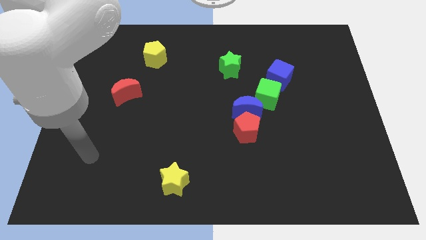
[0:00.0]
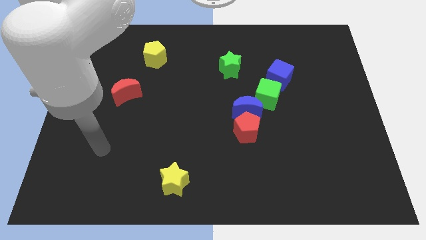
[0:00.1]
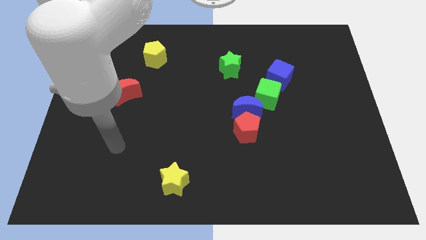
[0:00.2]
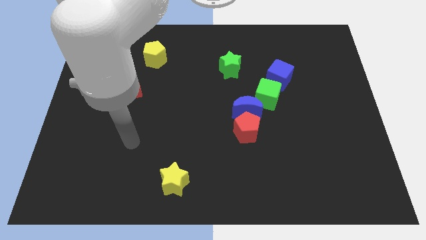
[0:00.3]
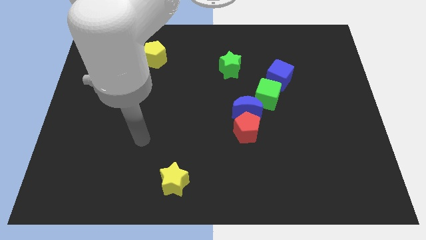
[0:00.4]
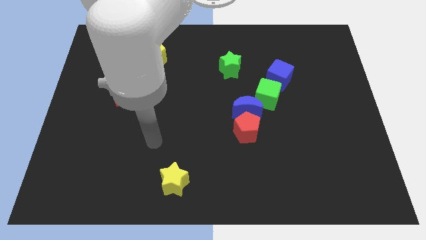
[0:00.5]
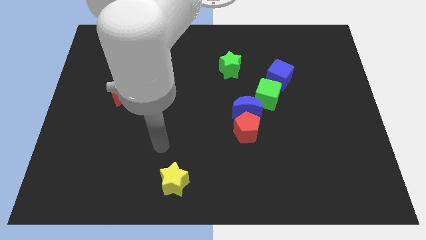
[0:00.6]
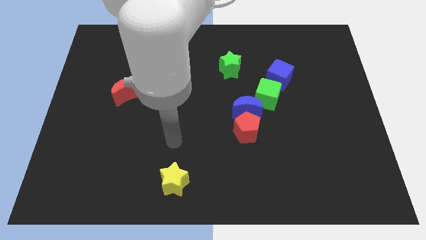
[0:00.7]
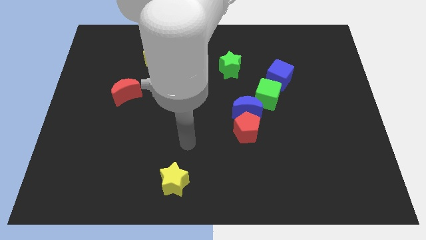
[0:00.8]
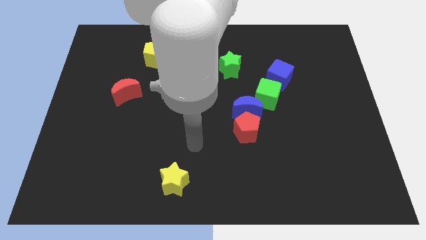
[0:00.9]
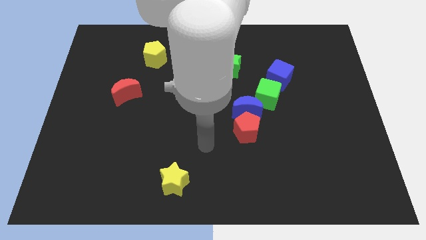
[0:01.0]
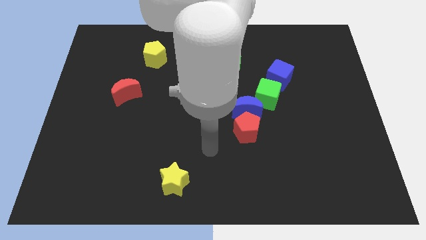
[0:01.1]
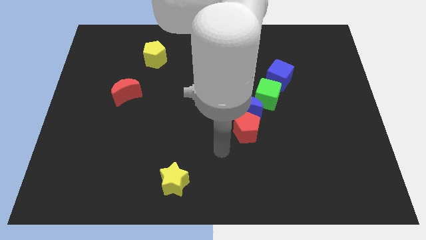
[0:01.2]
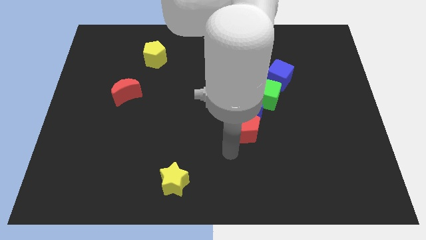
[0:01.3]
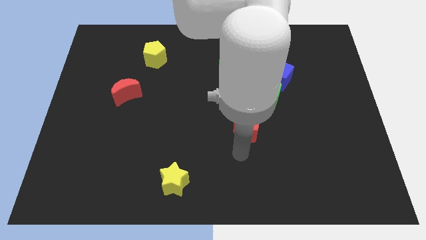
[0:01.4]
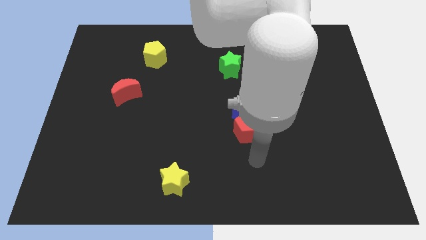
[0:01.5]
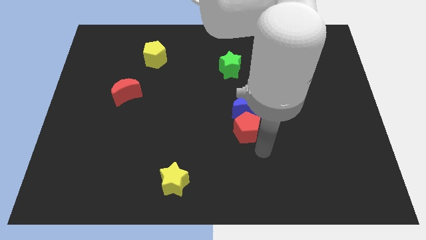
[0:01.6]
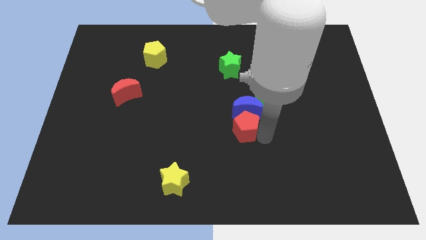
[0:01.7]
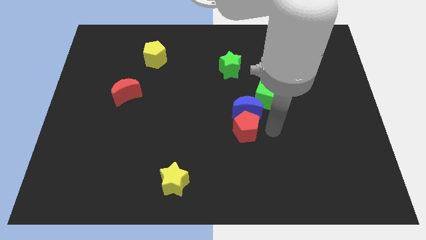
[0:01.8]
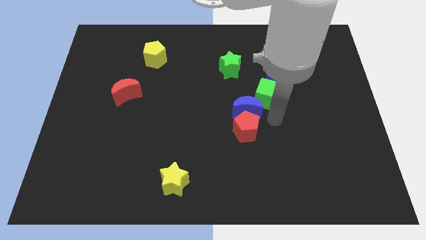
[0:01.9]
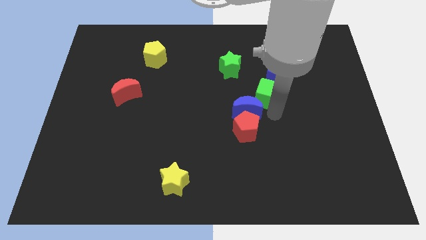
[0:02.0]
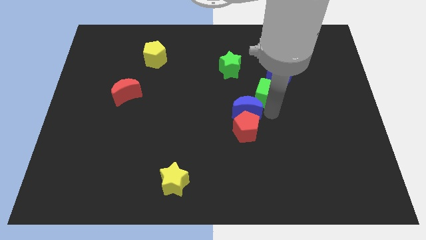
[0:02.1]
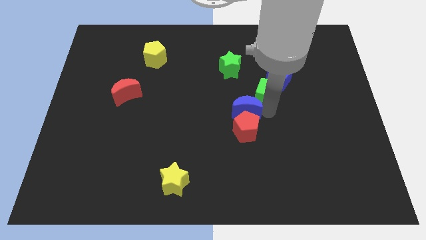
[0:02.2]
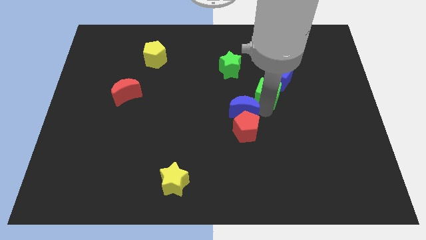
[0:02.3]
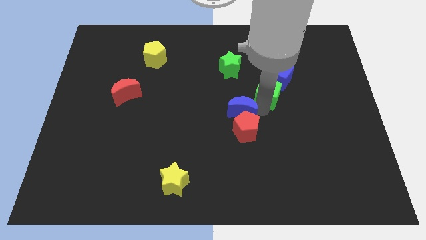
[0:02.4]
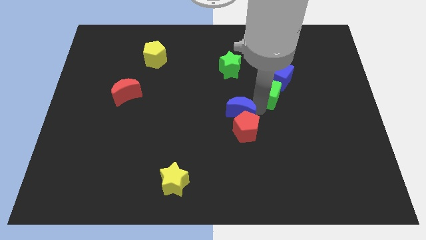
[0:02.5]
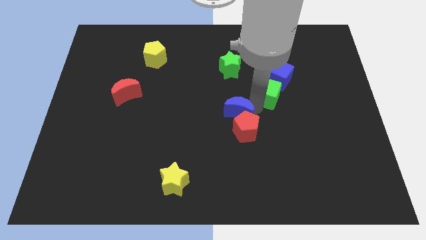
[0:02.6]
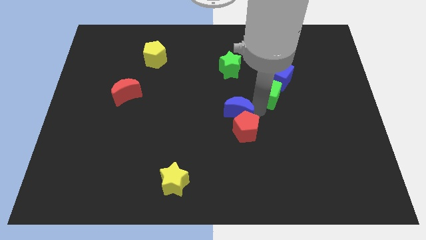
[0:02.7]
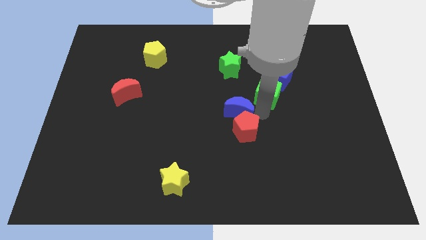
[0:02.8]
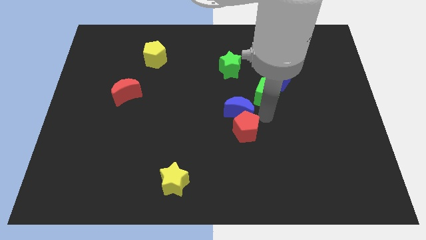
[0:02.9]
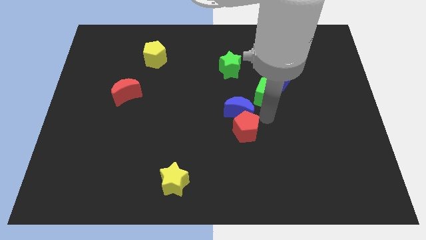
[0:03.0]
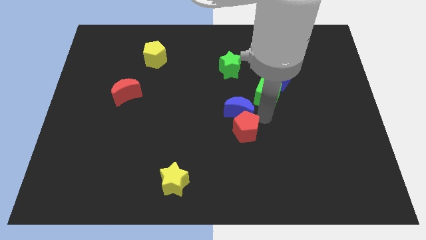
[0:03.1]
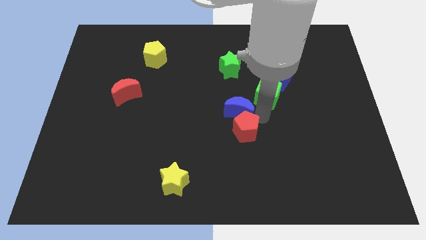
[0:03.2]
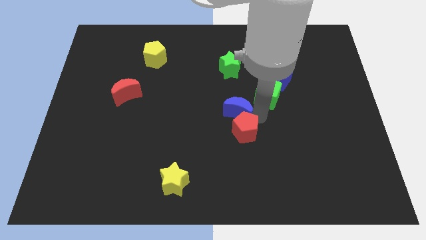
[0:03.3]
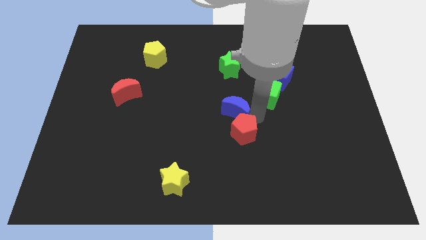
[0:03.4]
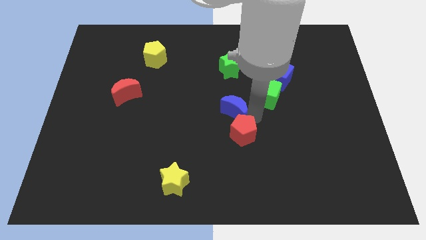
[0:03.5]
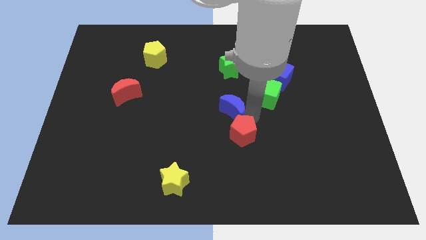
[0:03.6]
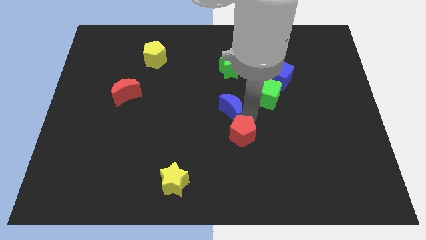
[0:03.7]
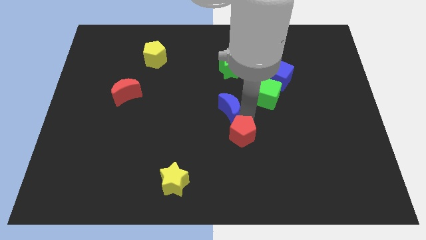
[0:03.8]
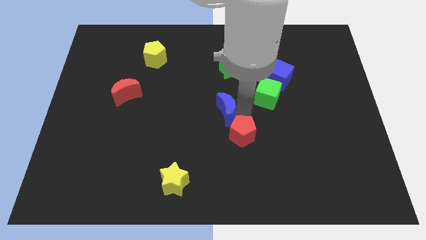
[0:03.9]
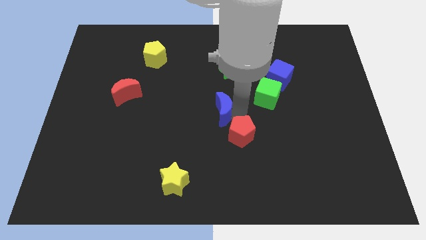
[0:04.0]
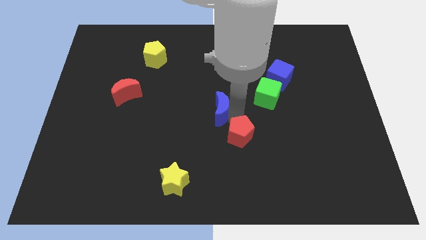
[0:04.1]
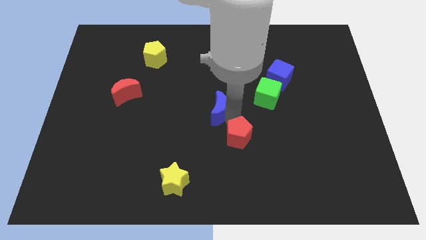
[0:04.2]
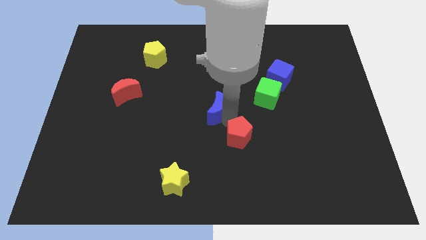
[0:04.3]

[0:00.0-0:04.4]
slightly slide the blue moon left

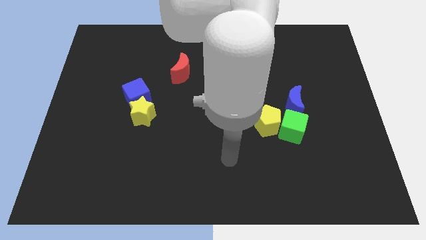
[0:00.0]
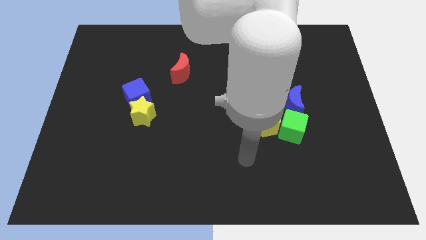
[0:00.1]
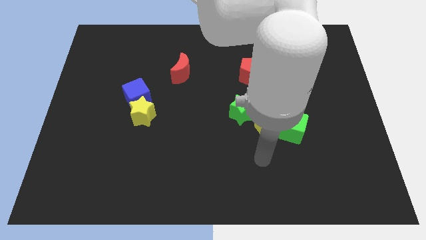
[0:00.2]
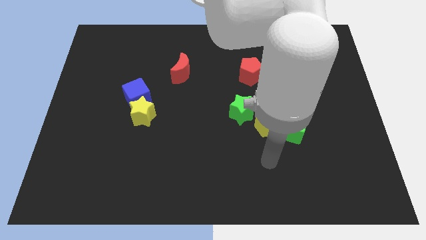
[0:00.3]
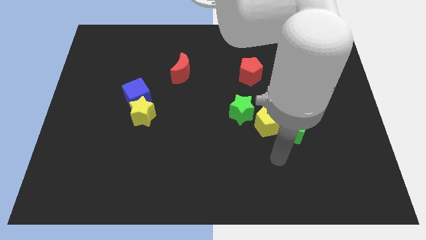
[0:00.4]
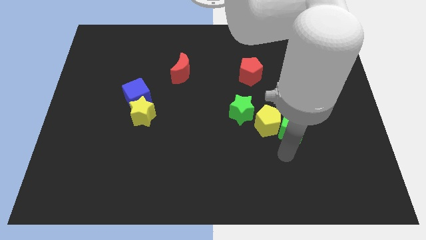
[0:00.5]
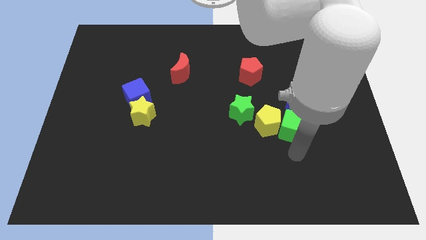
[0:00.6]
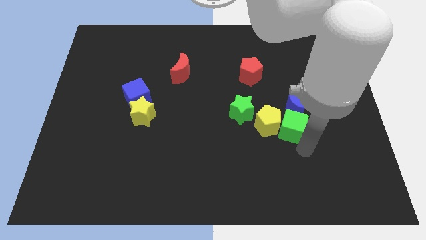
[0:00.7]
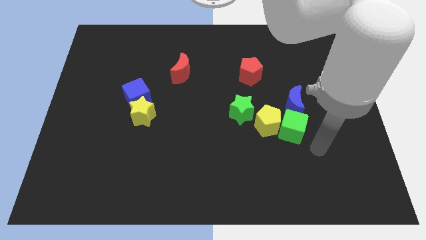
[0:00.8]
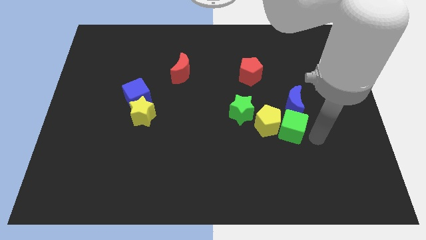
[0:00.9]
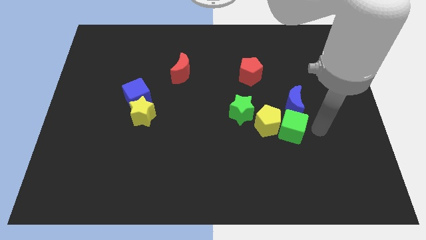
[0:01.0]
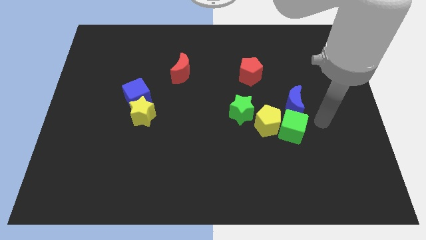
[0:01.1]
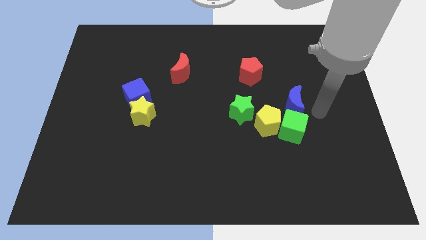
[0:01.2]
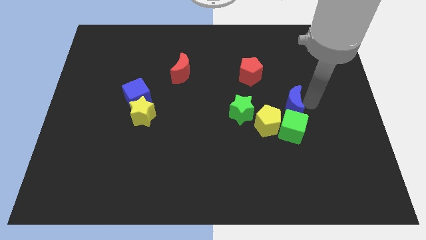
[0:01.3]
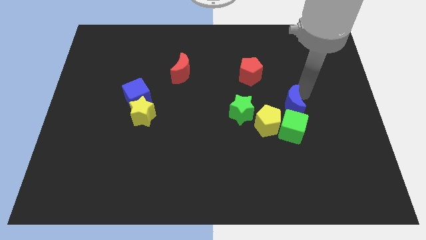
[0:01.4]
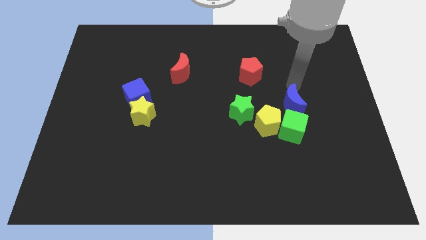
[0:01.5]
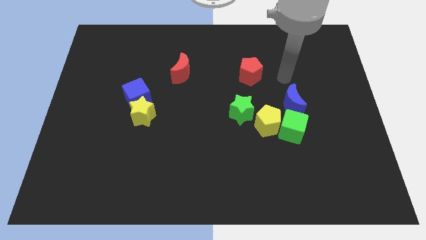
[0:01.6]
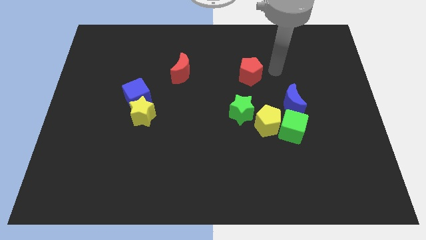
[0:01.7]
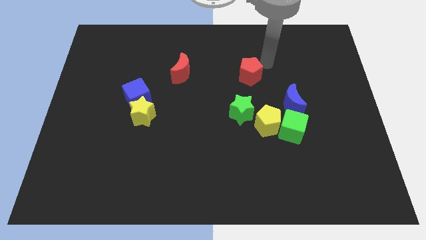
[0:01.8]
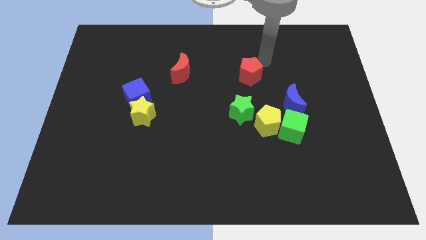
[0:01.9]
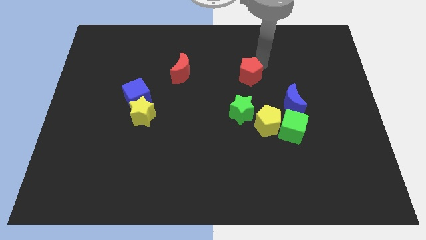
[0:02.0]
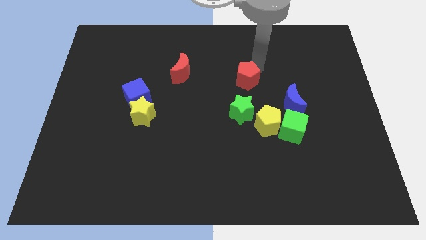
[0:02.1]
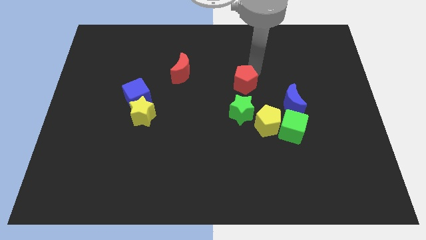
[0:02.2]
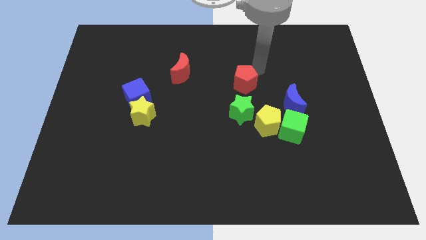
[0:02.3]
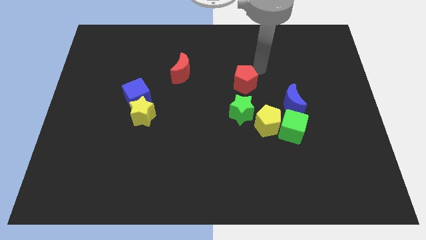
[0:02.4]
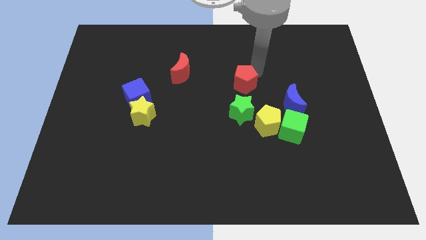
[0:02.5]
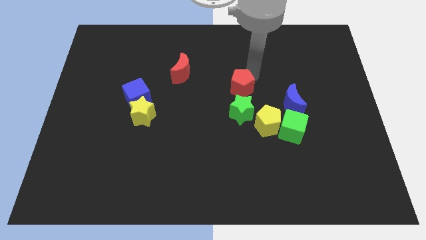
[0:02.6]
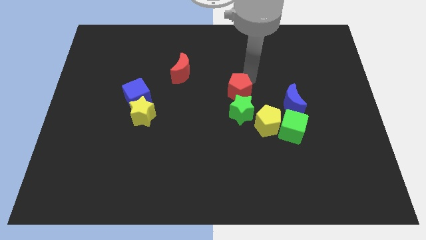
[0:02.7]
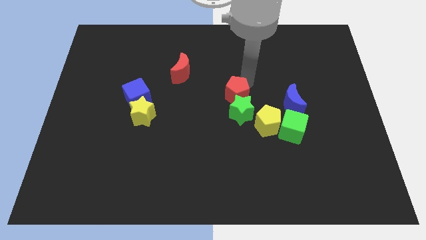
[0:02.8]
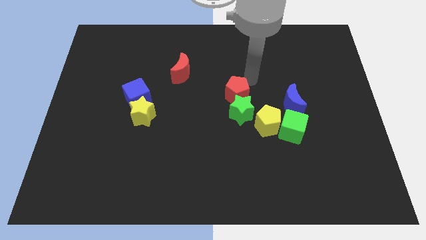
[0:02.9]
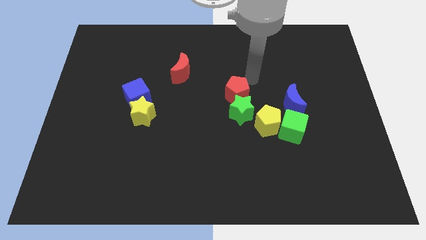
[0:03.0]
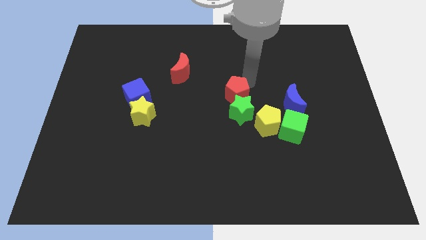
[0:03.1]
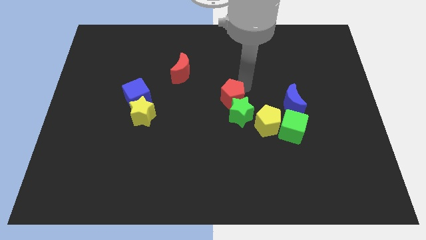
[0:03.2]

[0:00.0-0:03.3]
slide the red pentagon downwards a little bit
